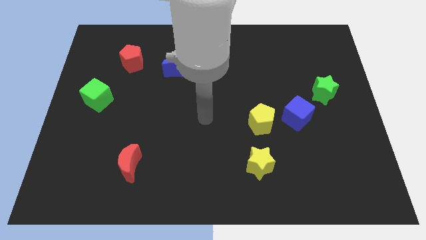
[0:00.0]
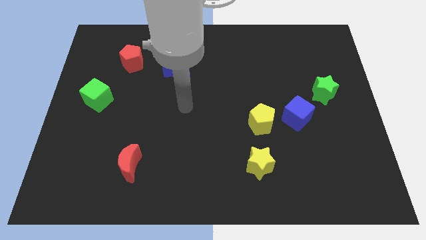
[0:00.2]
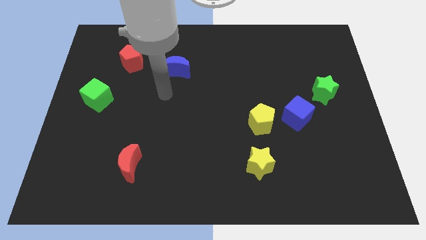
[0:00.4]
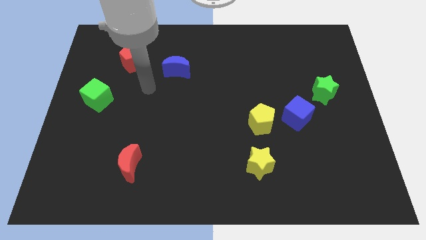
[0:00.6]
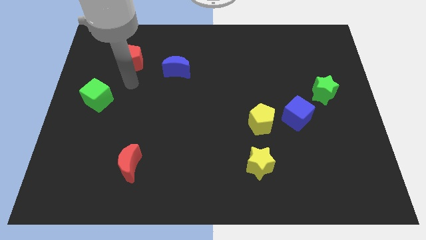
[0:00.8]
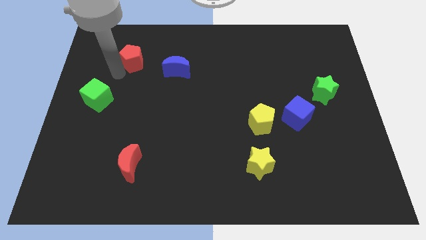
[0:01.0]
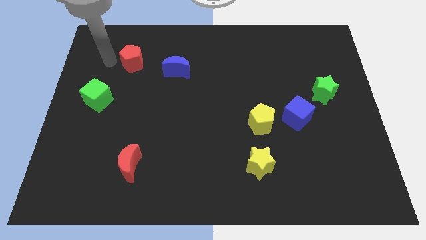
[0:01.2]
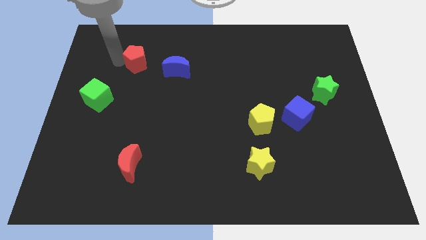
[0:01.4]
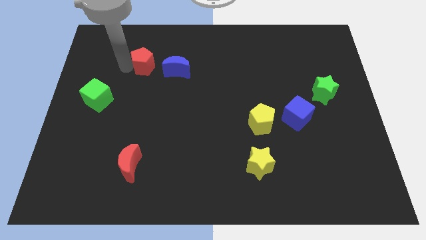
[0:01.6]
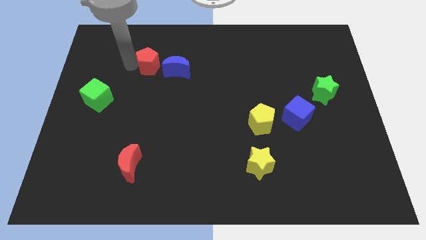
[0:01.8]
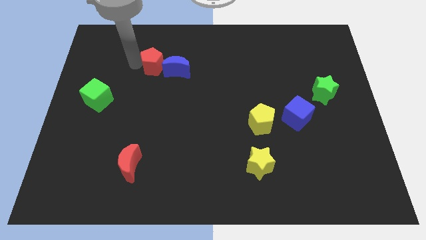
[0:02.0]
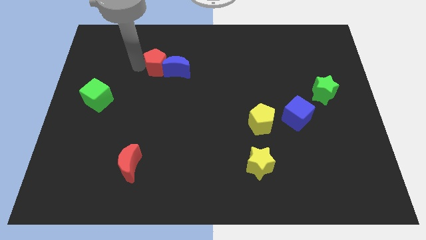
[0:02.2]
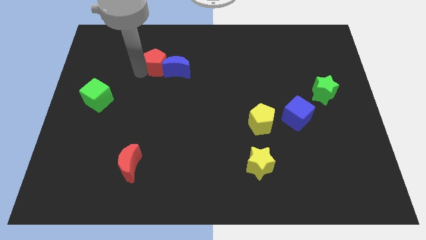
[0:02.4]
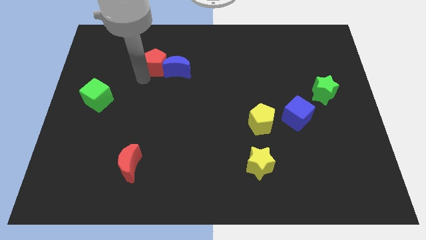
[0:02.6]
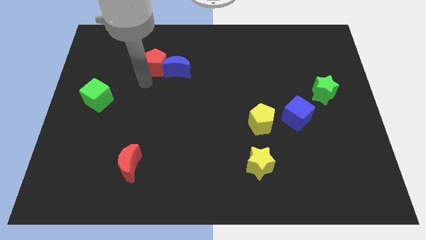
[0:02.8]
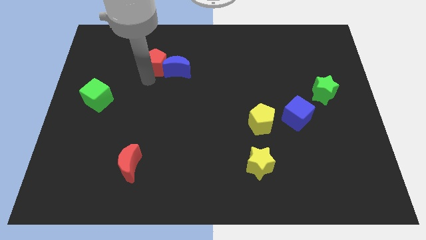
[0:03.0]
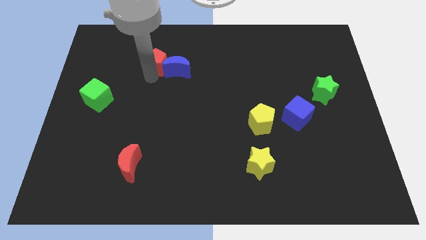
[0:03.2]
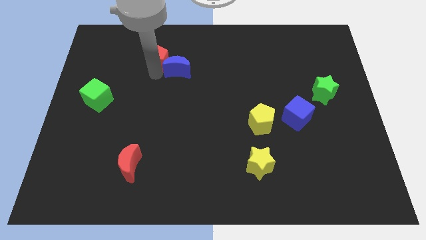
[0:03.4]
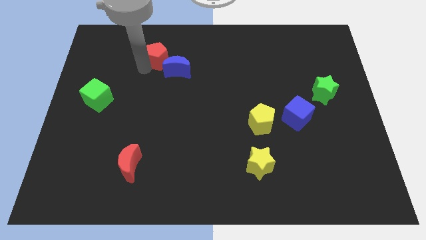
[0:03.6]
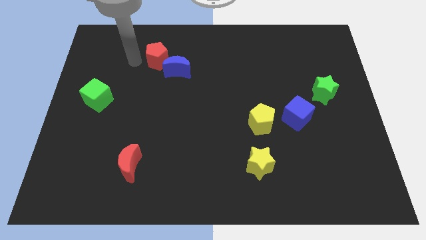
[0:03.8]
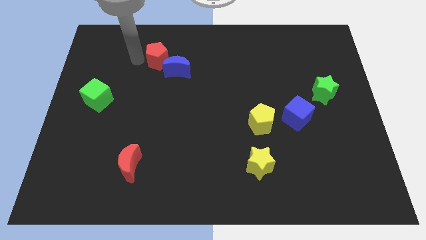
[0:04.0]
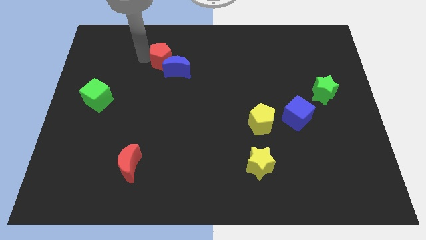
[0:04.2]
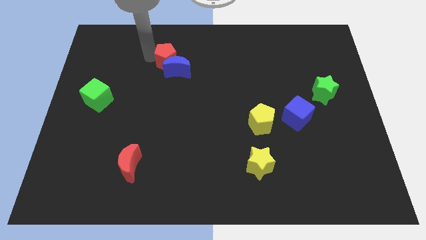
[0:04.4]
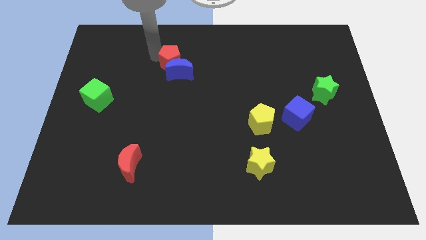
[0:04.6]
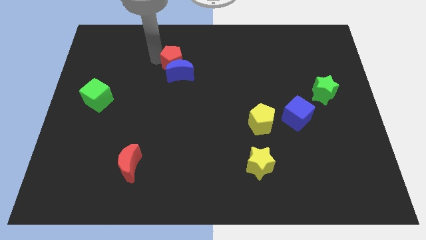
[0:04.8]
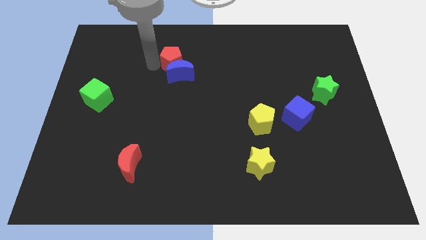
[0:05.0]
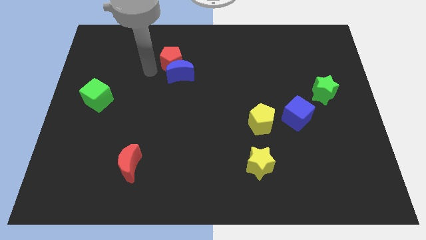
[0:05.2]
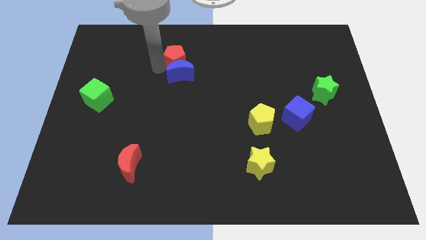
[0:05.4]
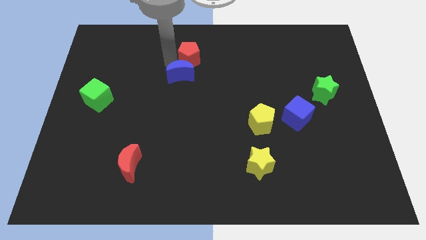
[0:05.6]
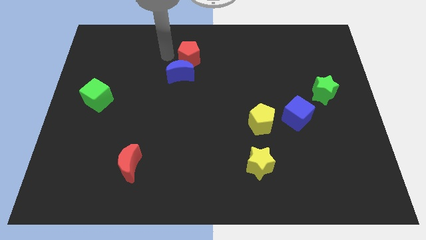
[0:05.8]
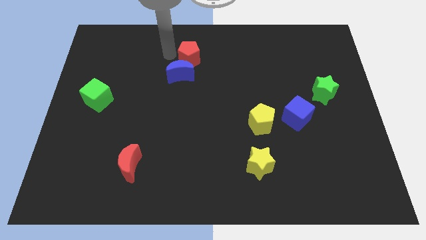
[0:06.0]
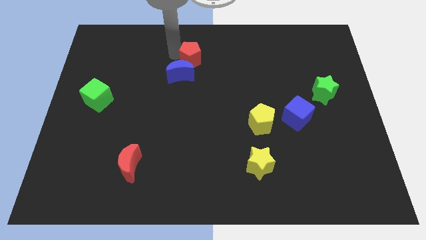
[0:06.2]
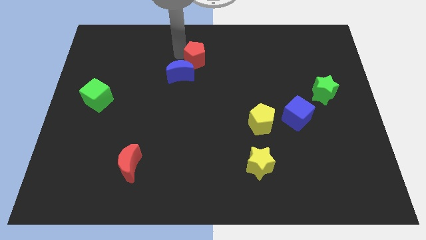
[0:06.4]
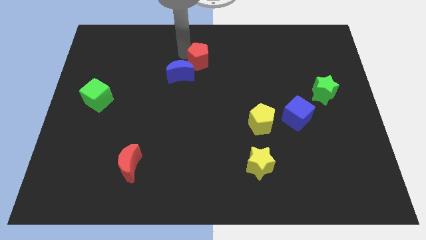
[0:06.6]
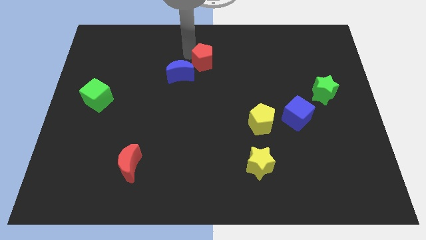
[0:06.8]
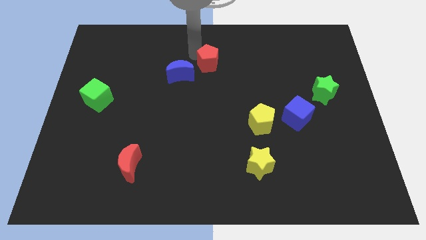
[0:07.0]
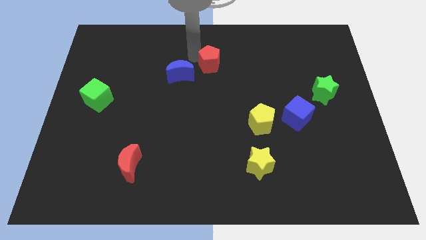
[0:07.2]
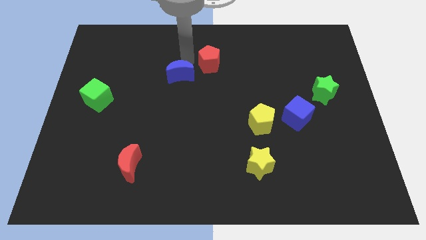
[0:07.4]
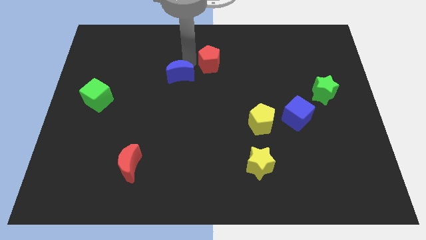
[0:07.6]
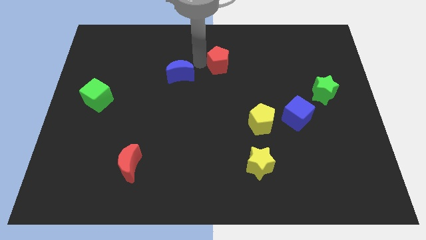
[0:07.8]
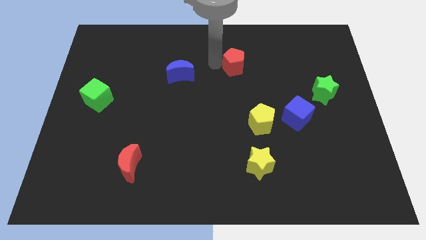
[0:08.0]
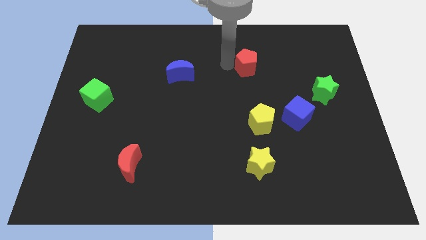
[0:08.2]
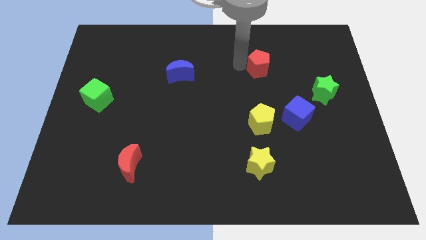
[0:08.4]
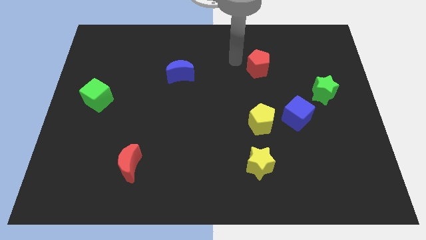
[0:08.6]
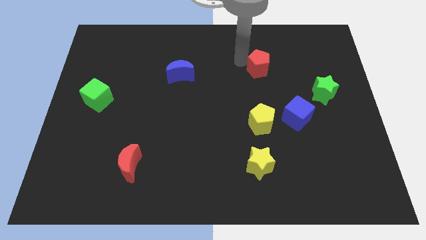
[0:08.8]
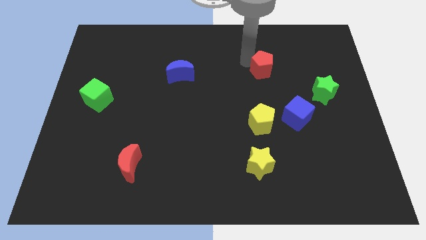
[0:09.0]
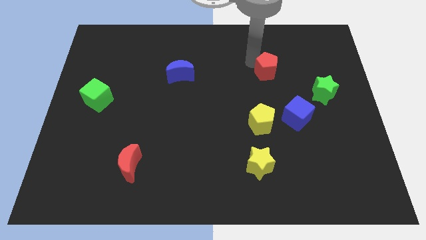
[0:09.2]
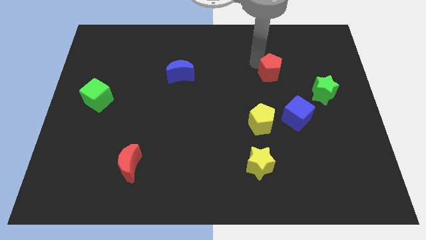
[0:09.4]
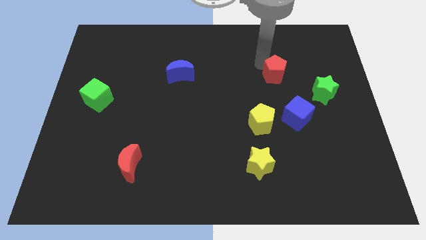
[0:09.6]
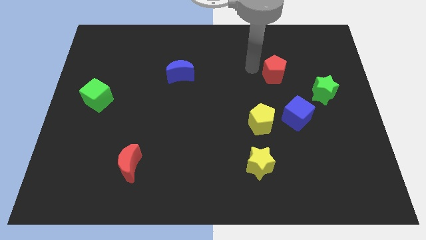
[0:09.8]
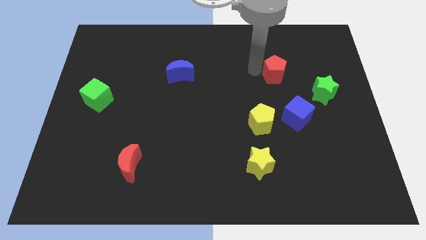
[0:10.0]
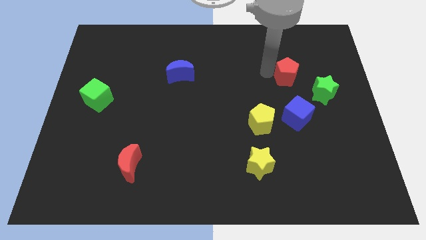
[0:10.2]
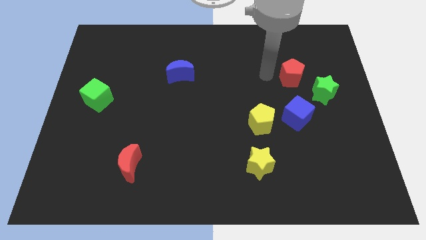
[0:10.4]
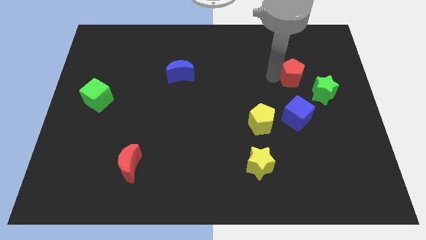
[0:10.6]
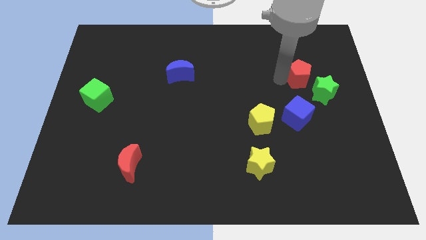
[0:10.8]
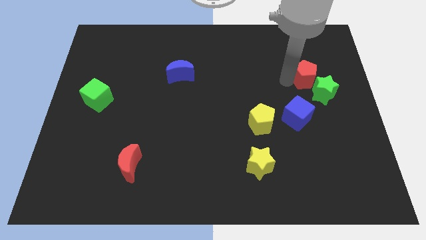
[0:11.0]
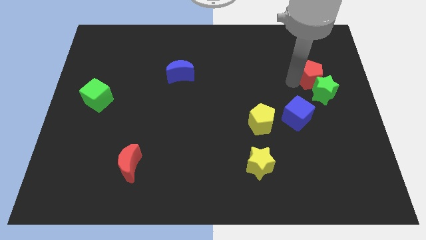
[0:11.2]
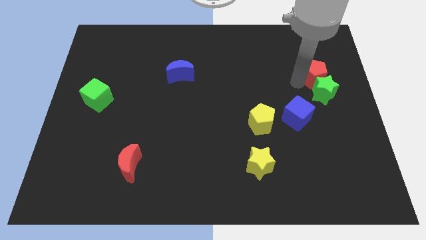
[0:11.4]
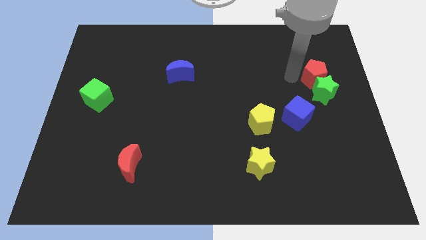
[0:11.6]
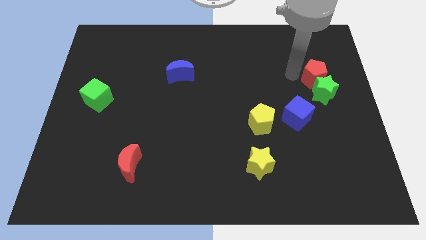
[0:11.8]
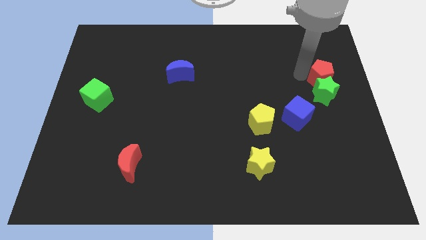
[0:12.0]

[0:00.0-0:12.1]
move the red pentagon to the right side
